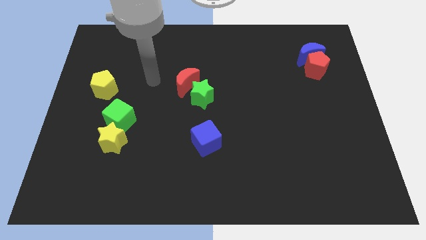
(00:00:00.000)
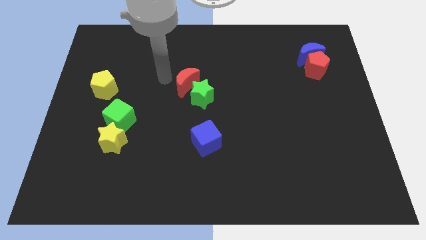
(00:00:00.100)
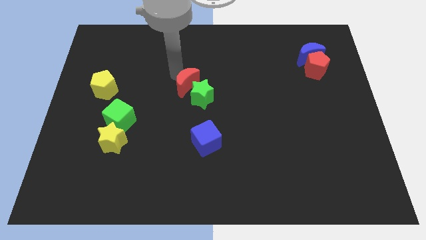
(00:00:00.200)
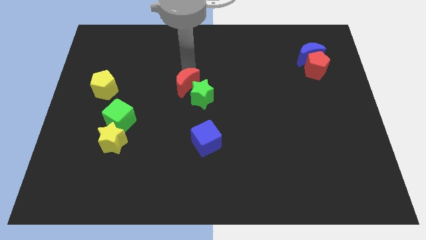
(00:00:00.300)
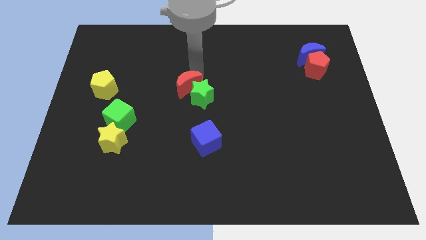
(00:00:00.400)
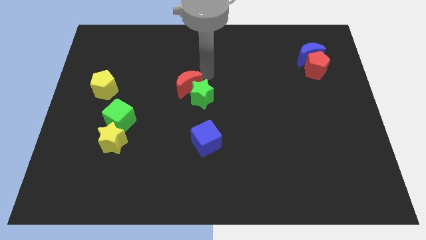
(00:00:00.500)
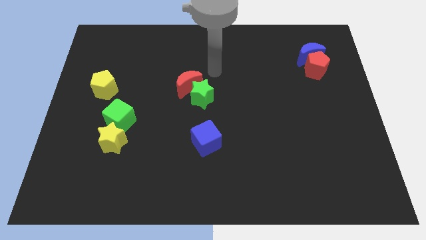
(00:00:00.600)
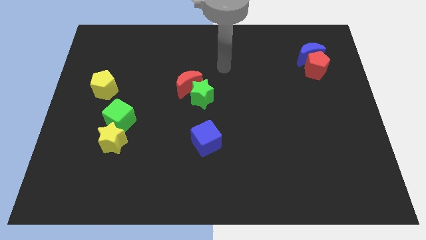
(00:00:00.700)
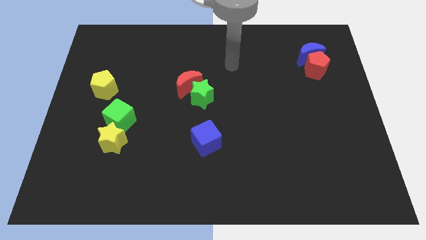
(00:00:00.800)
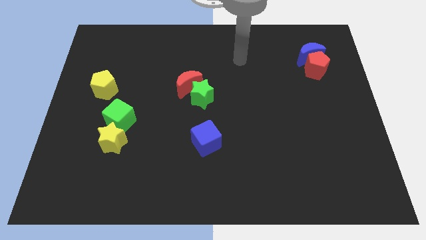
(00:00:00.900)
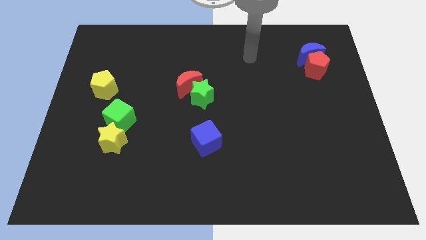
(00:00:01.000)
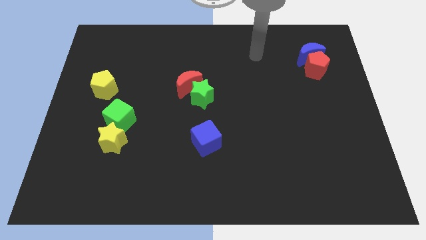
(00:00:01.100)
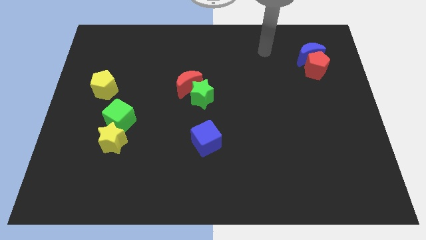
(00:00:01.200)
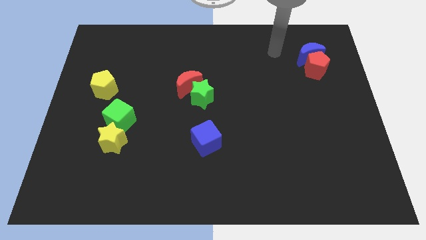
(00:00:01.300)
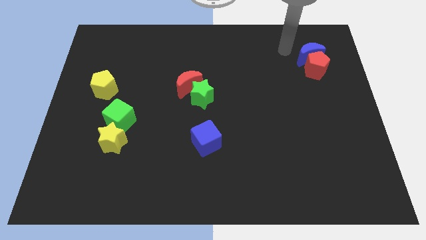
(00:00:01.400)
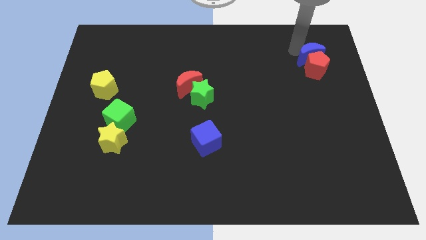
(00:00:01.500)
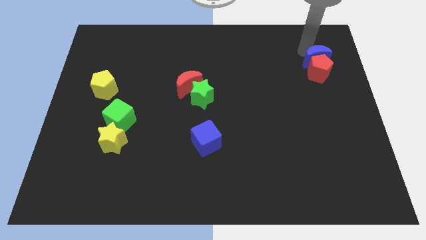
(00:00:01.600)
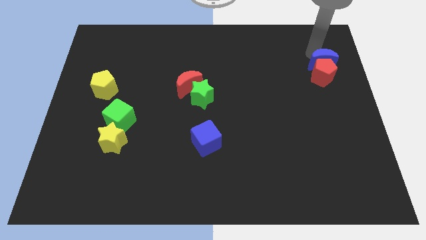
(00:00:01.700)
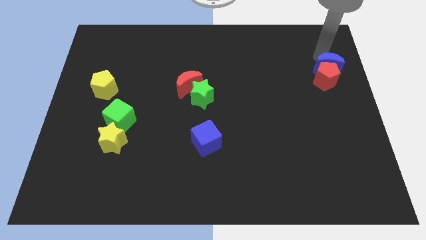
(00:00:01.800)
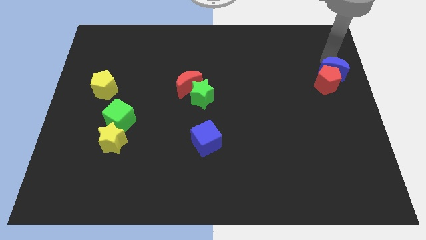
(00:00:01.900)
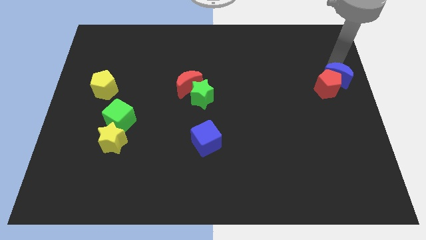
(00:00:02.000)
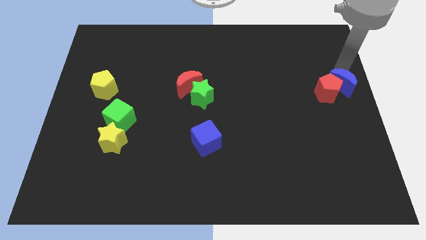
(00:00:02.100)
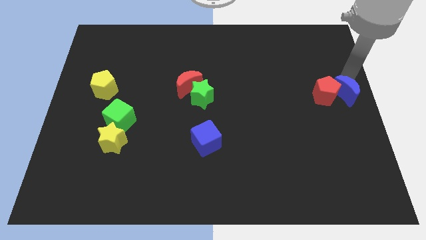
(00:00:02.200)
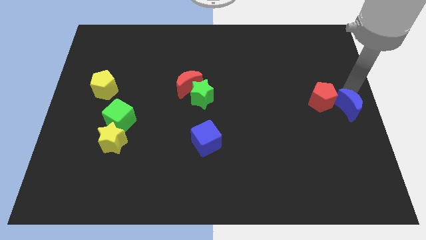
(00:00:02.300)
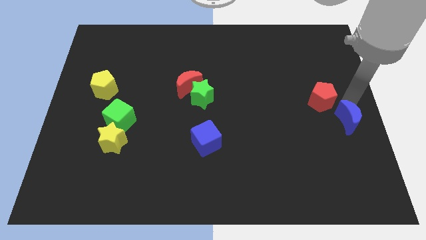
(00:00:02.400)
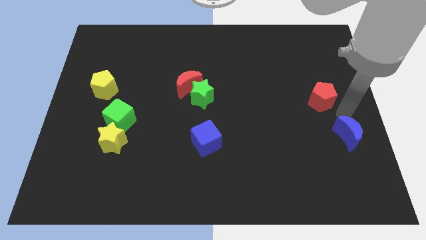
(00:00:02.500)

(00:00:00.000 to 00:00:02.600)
move the red pentagon away from the blue moon

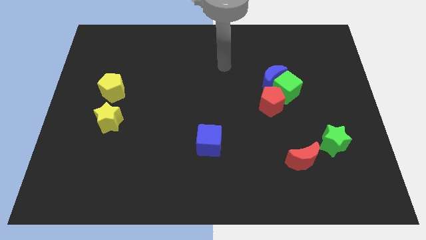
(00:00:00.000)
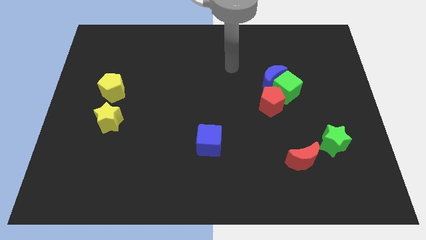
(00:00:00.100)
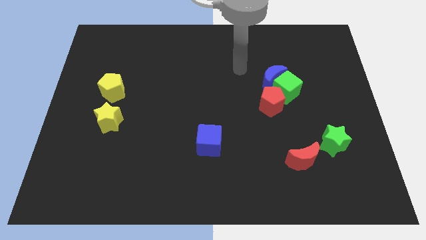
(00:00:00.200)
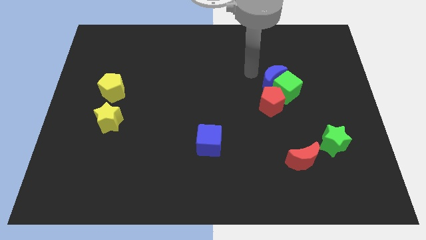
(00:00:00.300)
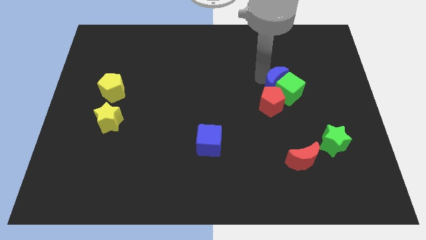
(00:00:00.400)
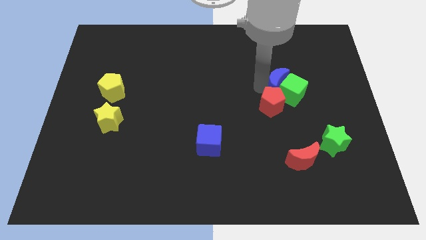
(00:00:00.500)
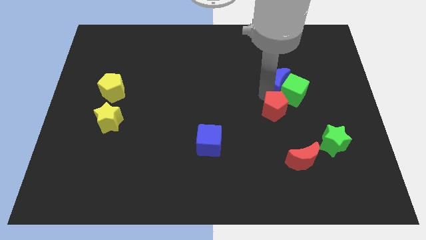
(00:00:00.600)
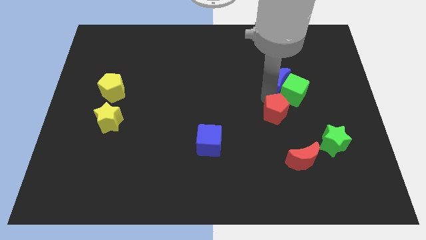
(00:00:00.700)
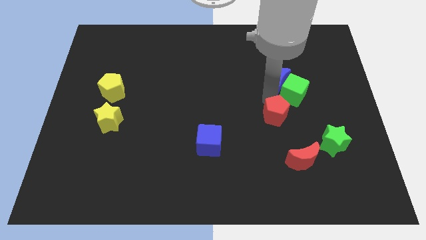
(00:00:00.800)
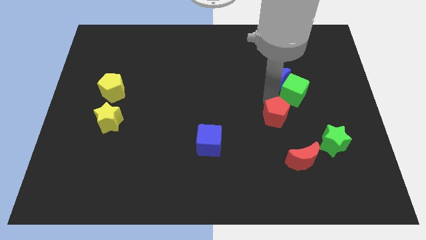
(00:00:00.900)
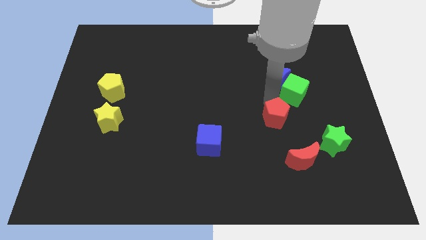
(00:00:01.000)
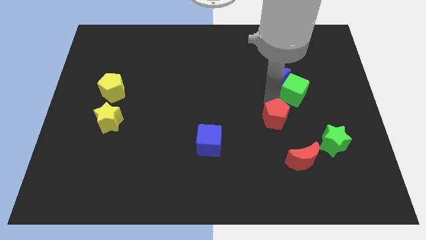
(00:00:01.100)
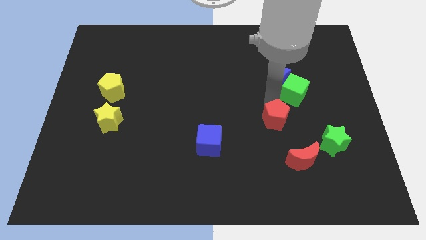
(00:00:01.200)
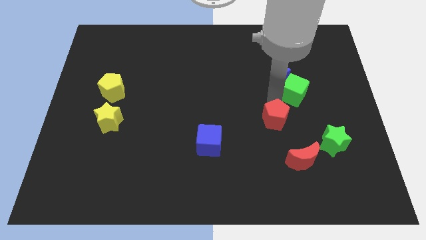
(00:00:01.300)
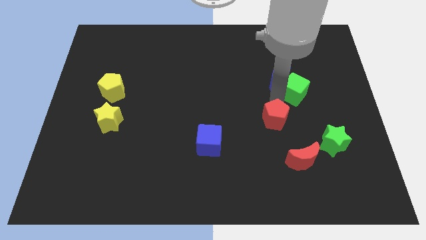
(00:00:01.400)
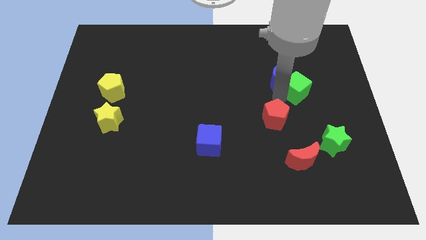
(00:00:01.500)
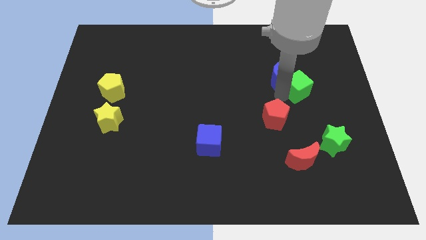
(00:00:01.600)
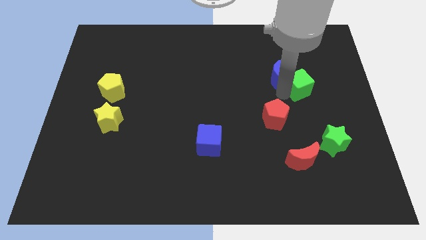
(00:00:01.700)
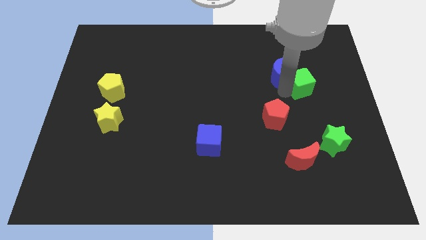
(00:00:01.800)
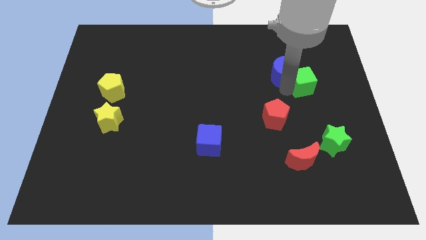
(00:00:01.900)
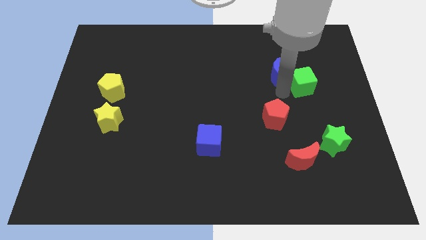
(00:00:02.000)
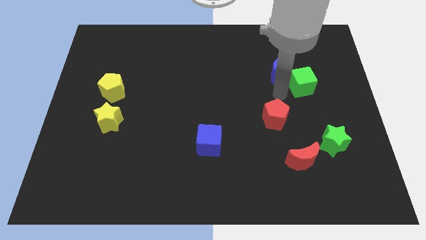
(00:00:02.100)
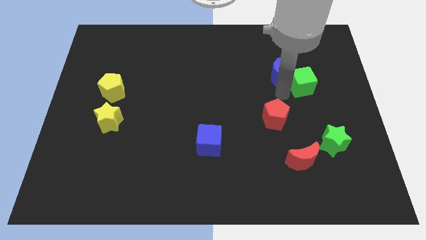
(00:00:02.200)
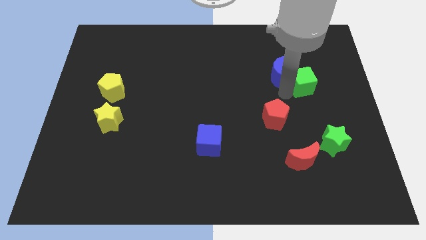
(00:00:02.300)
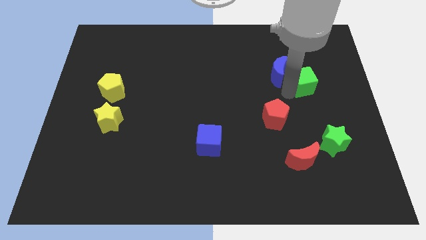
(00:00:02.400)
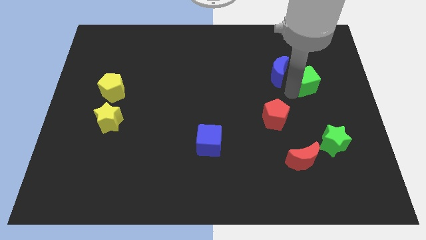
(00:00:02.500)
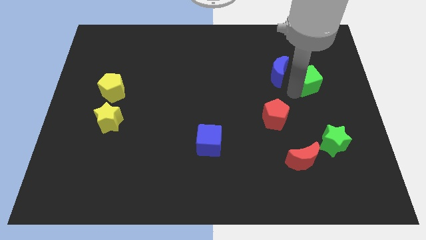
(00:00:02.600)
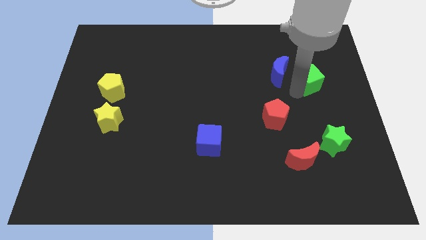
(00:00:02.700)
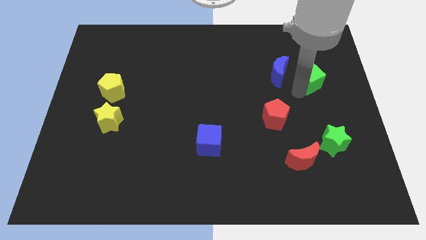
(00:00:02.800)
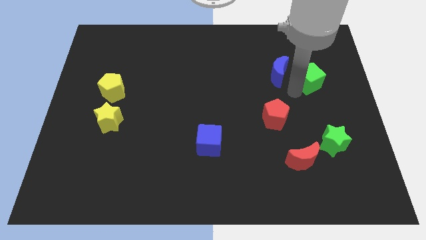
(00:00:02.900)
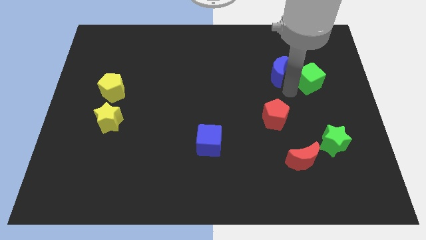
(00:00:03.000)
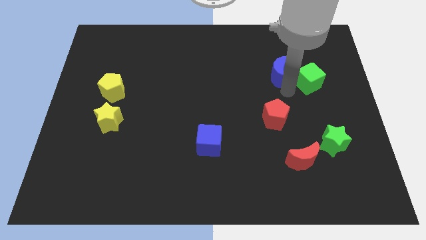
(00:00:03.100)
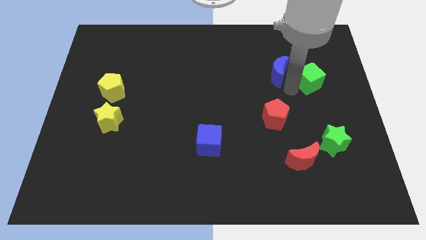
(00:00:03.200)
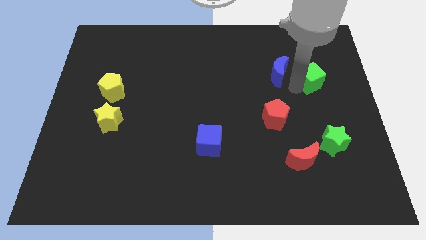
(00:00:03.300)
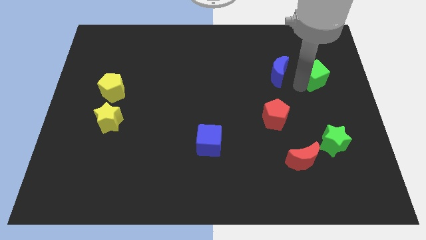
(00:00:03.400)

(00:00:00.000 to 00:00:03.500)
separate the green cube from the blue moon and red pentagon

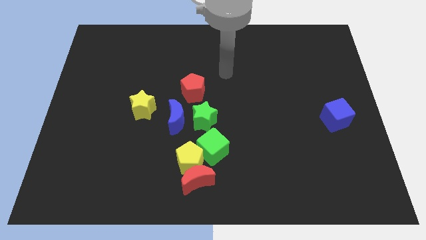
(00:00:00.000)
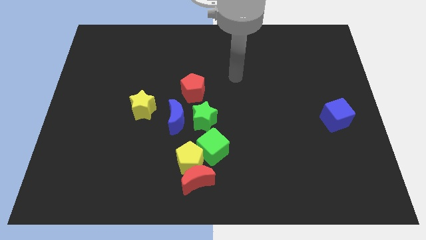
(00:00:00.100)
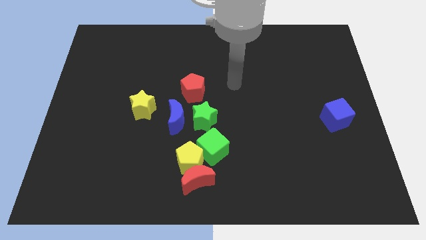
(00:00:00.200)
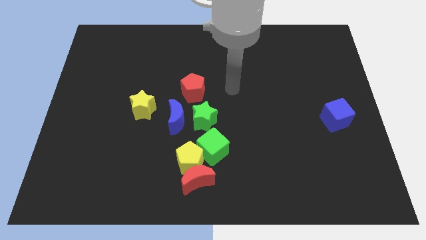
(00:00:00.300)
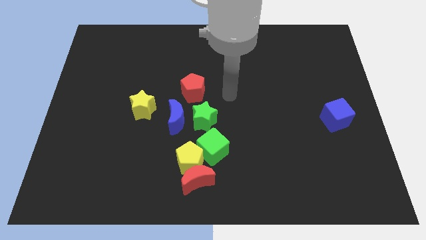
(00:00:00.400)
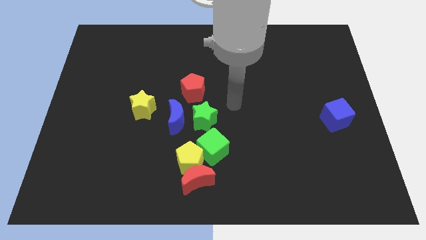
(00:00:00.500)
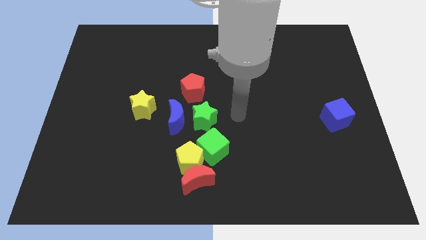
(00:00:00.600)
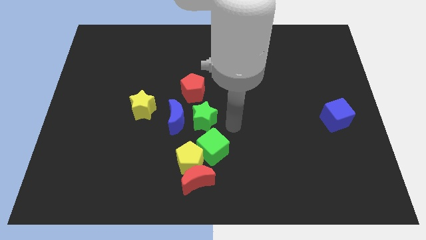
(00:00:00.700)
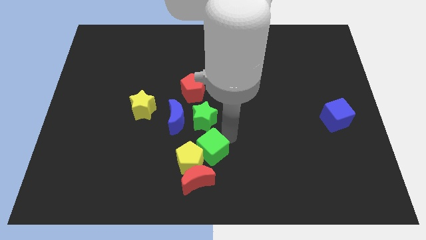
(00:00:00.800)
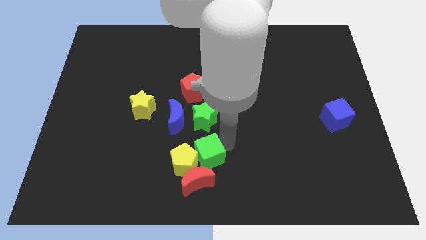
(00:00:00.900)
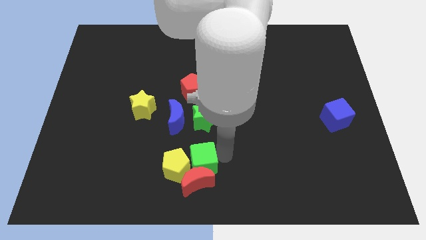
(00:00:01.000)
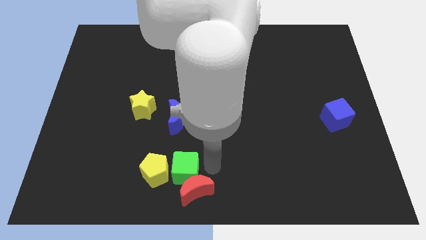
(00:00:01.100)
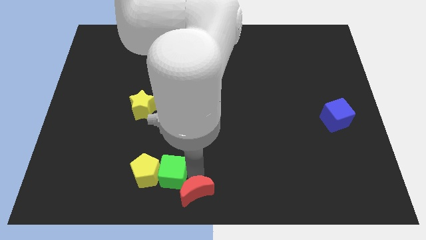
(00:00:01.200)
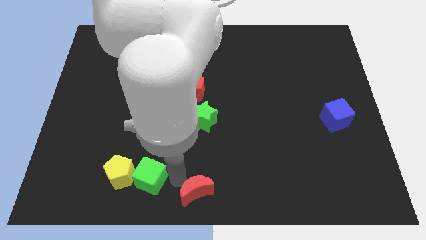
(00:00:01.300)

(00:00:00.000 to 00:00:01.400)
separate the yellow pentagon from the red moon and green cube

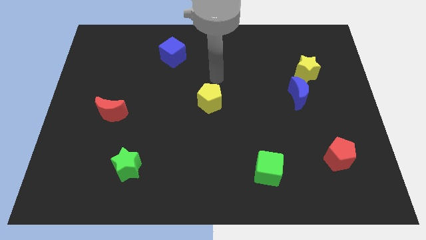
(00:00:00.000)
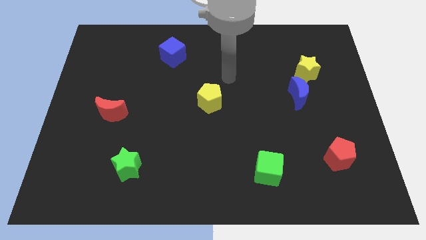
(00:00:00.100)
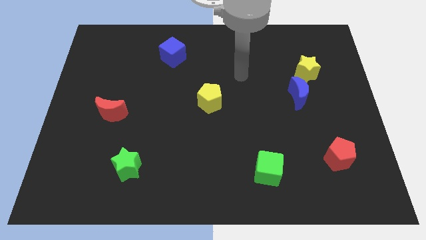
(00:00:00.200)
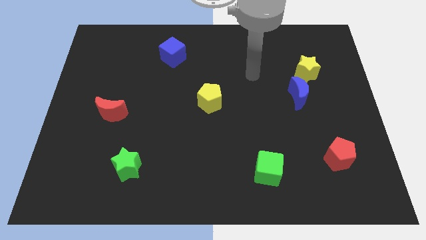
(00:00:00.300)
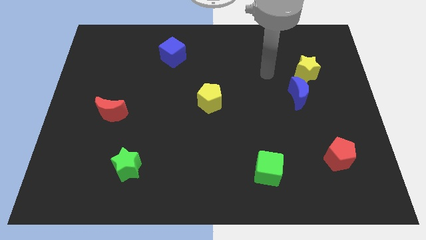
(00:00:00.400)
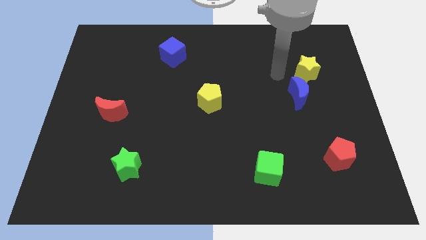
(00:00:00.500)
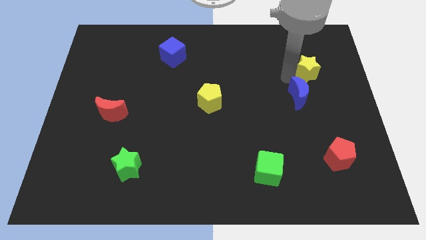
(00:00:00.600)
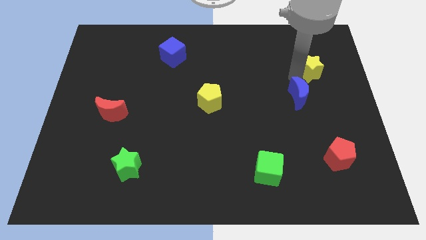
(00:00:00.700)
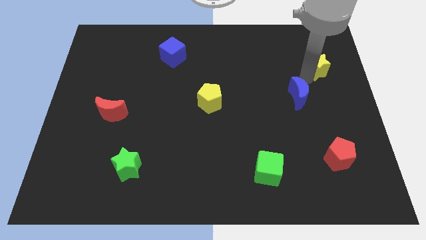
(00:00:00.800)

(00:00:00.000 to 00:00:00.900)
pull the blue moon apart from the yellow star

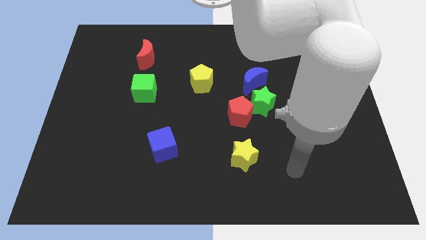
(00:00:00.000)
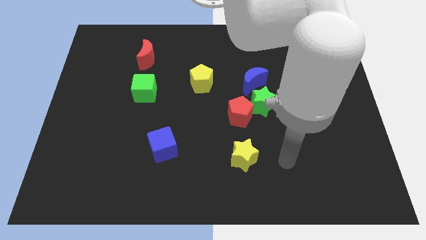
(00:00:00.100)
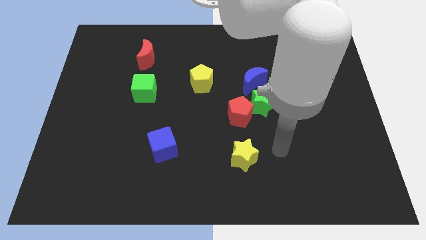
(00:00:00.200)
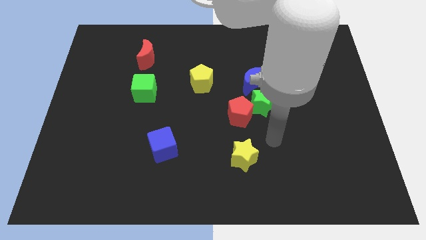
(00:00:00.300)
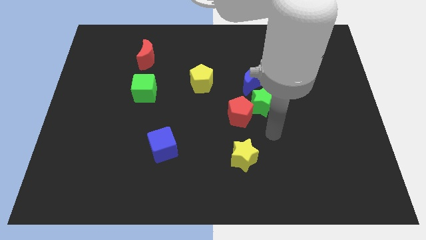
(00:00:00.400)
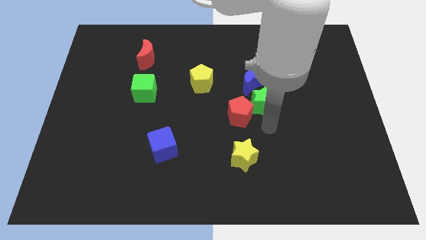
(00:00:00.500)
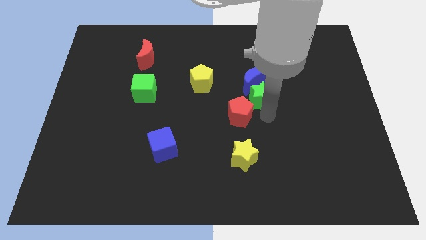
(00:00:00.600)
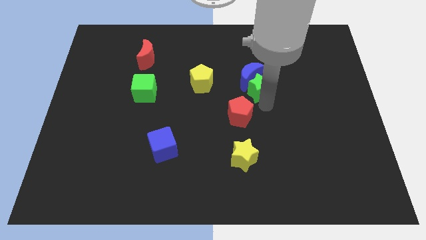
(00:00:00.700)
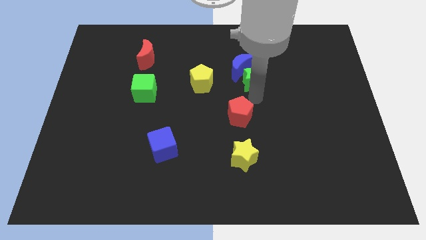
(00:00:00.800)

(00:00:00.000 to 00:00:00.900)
pull the red pentagon apart from the green star
